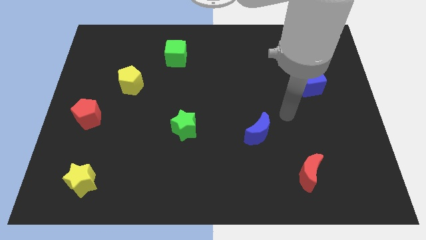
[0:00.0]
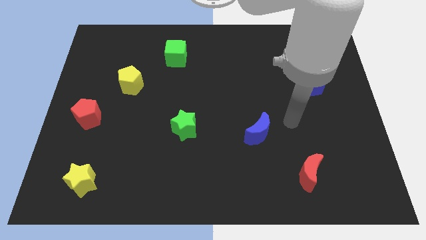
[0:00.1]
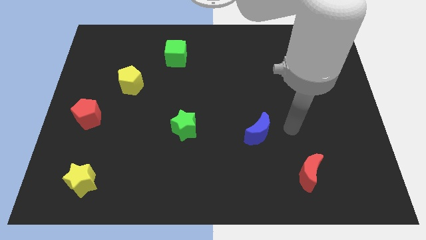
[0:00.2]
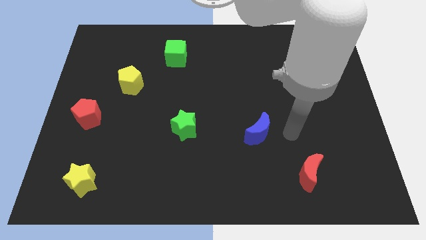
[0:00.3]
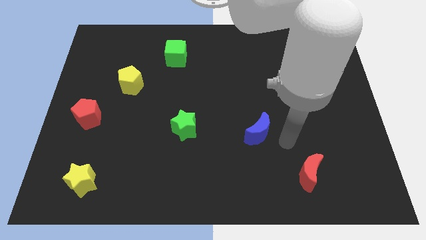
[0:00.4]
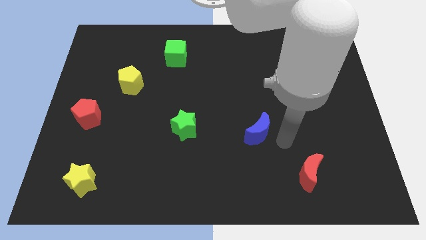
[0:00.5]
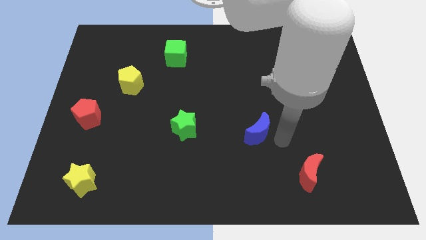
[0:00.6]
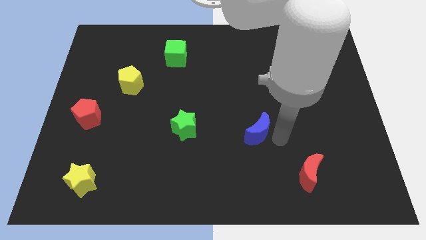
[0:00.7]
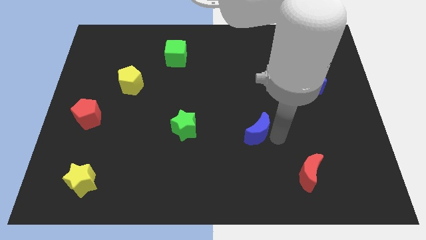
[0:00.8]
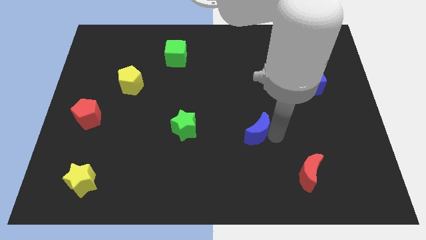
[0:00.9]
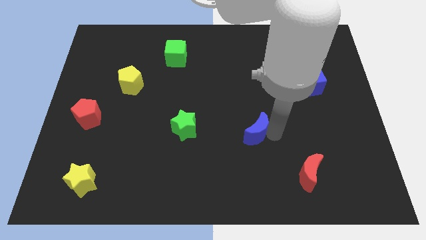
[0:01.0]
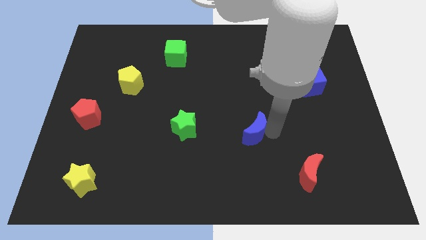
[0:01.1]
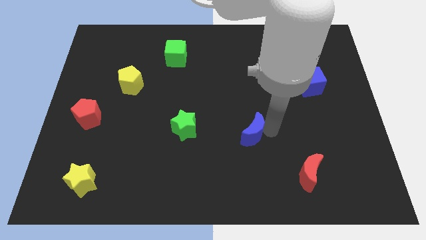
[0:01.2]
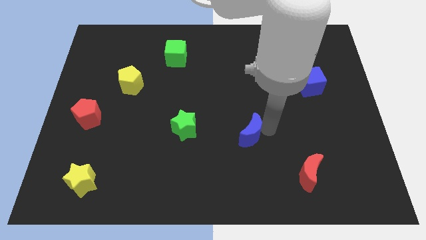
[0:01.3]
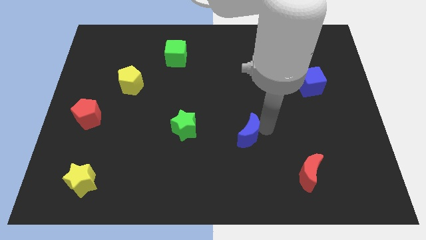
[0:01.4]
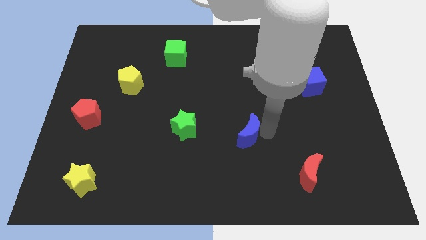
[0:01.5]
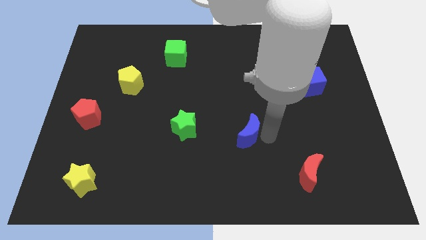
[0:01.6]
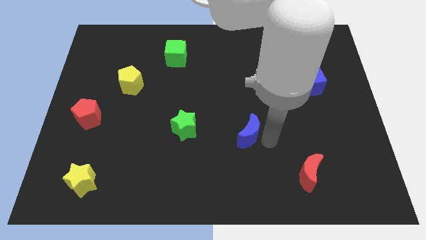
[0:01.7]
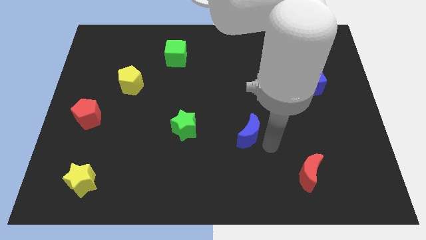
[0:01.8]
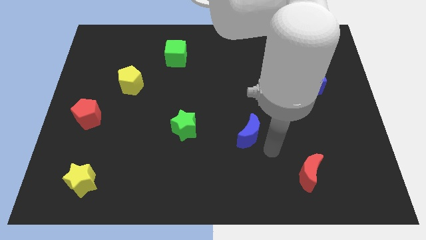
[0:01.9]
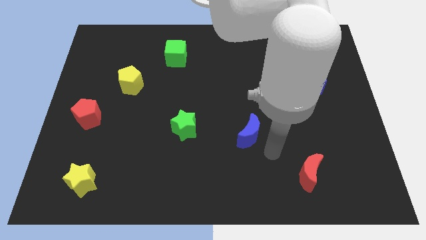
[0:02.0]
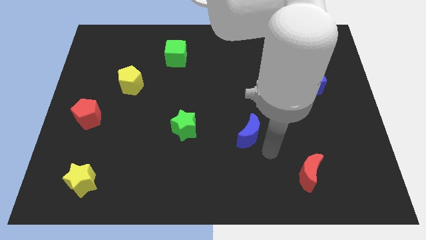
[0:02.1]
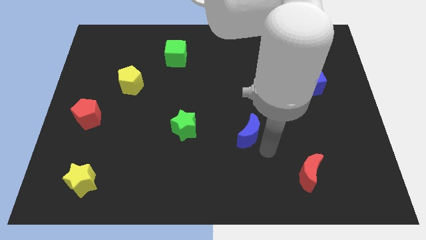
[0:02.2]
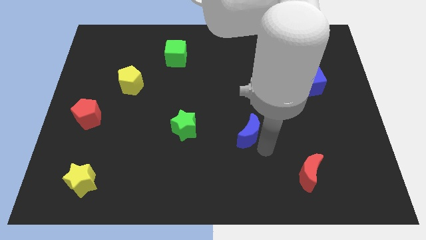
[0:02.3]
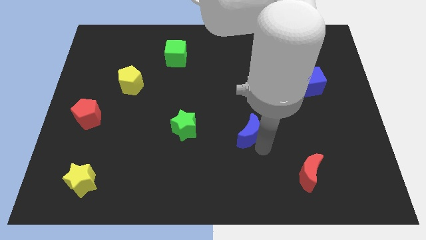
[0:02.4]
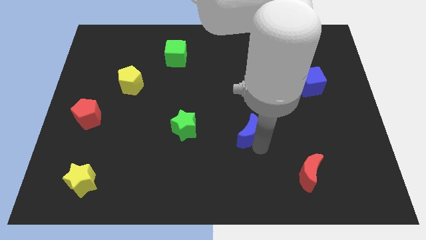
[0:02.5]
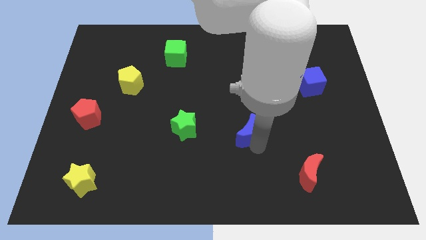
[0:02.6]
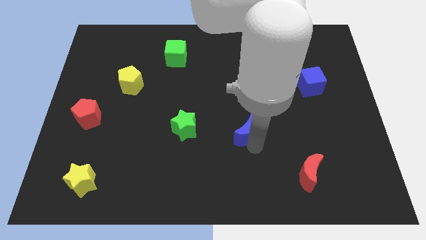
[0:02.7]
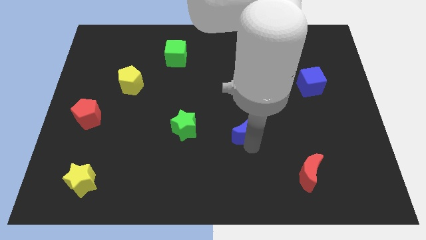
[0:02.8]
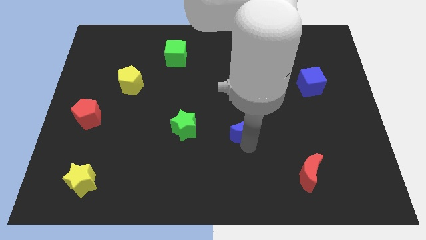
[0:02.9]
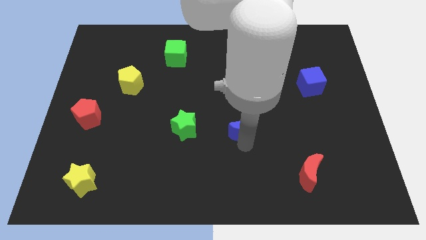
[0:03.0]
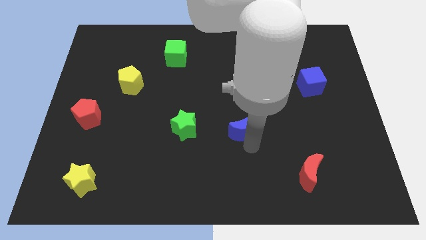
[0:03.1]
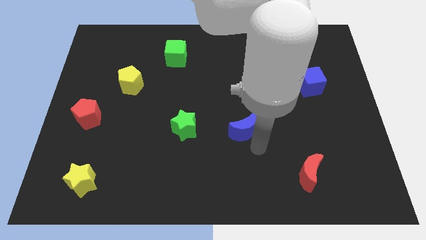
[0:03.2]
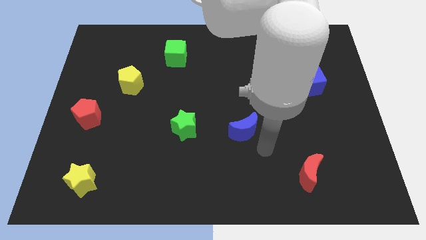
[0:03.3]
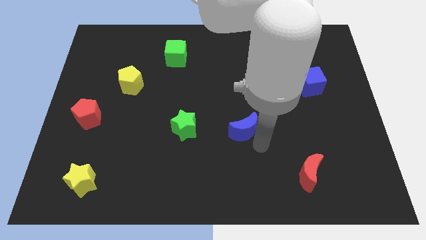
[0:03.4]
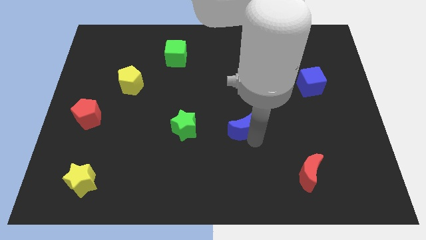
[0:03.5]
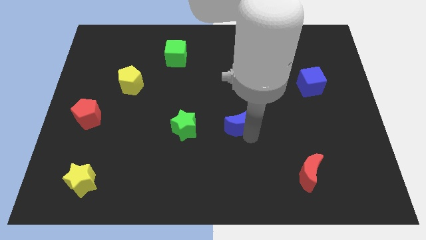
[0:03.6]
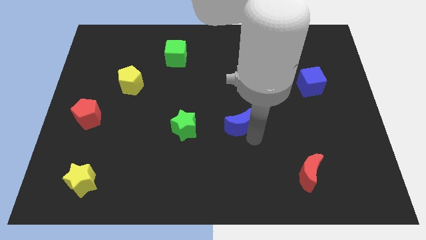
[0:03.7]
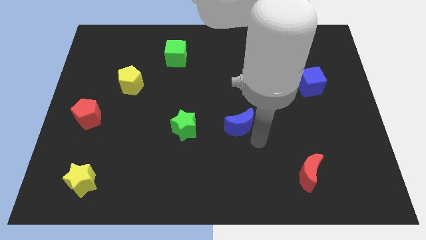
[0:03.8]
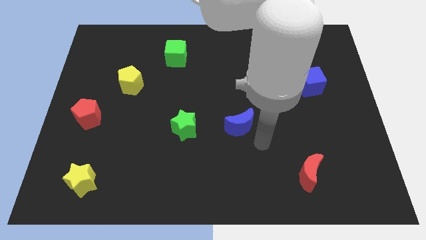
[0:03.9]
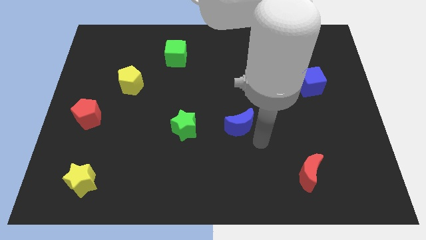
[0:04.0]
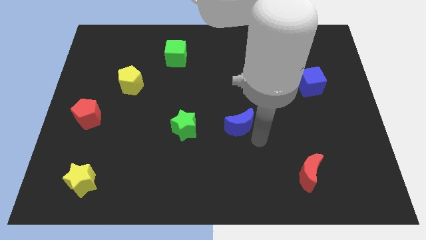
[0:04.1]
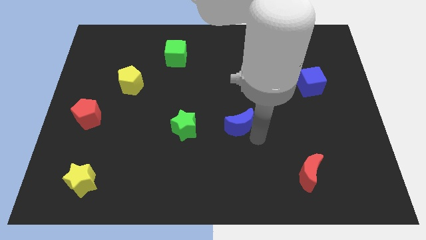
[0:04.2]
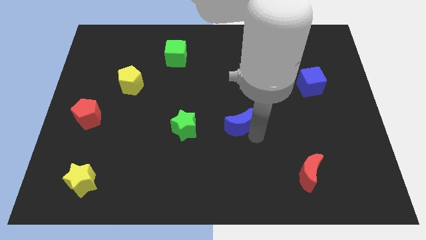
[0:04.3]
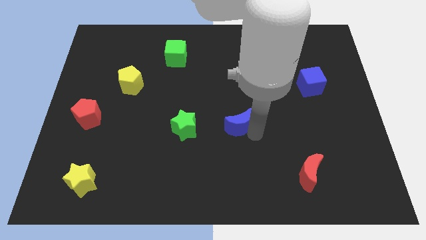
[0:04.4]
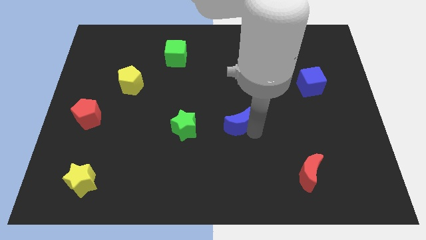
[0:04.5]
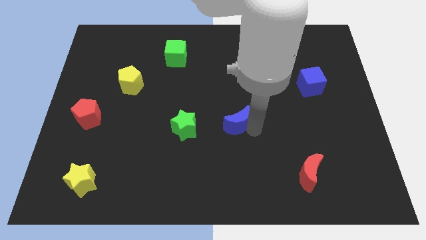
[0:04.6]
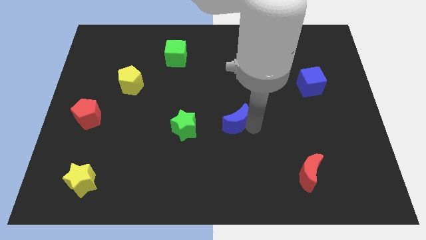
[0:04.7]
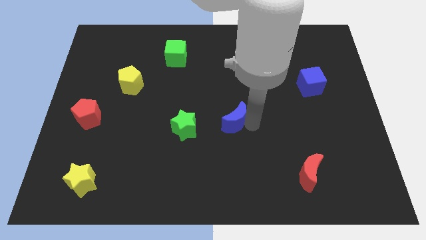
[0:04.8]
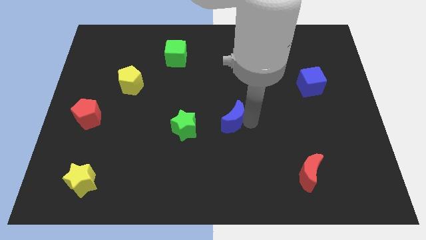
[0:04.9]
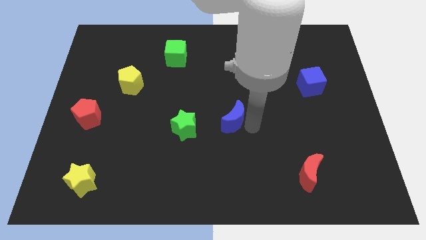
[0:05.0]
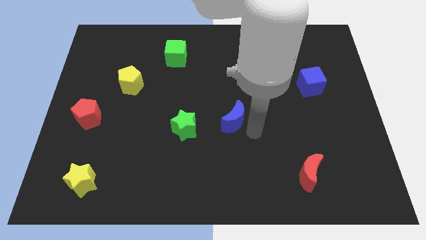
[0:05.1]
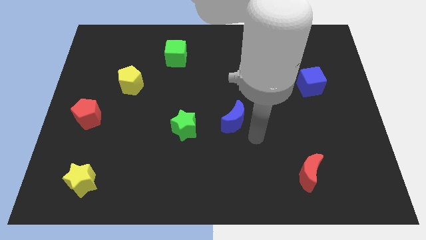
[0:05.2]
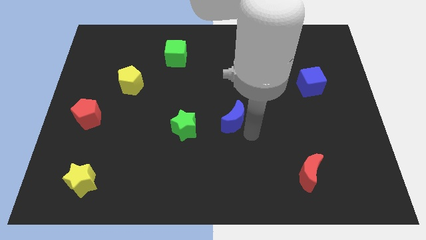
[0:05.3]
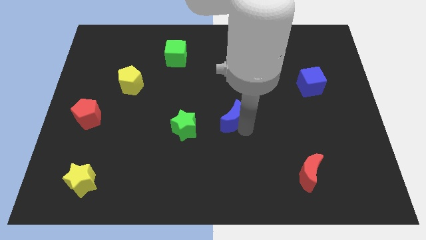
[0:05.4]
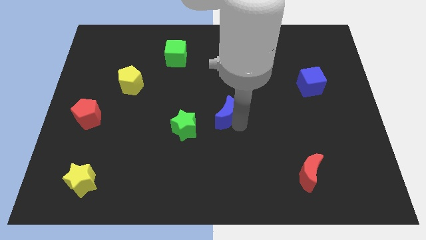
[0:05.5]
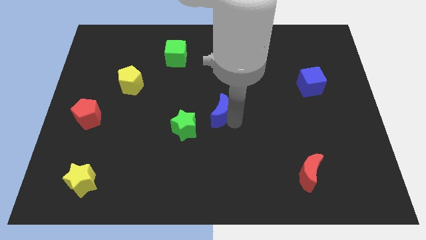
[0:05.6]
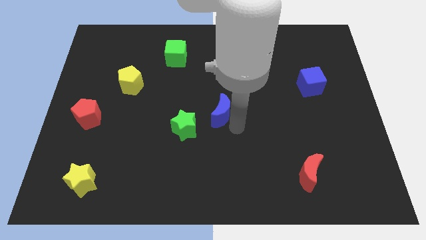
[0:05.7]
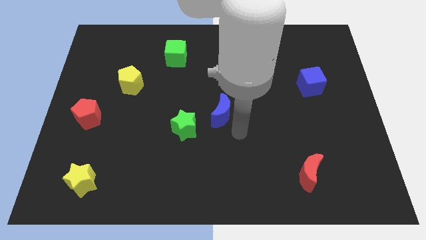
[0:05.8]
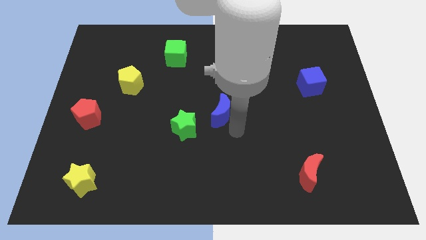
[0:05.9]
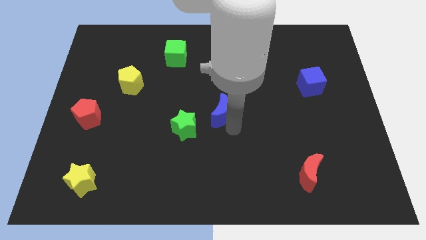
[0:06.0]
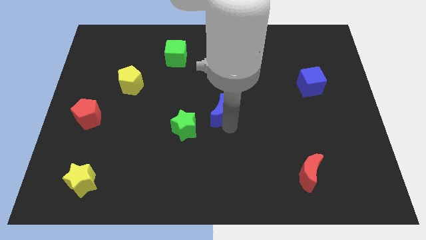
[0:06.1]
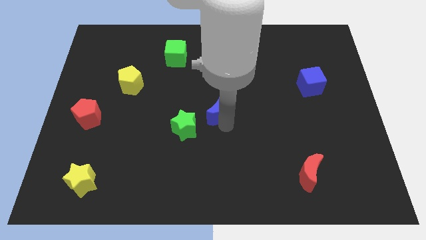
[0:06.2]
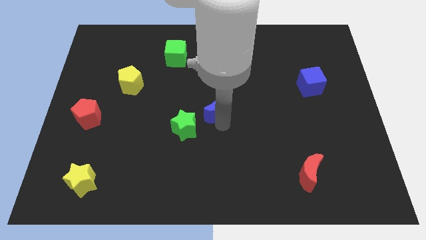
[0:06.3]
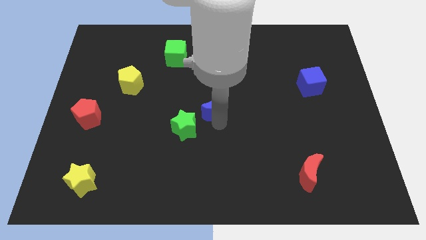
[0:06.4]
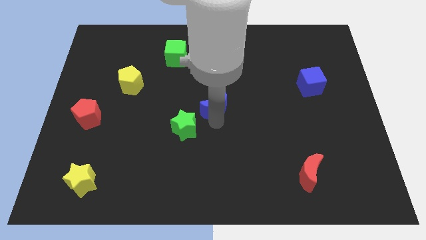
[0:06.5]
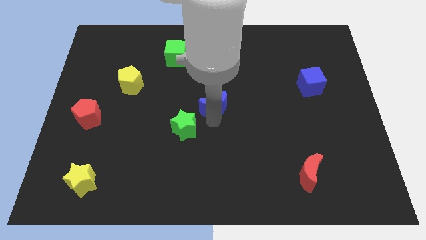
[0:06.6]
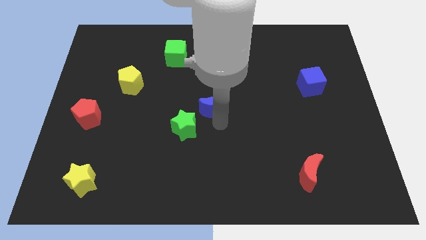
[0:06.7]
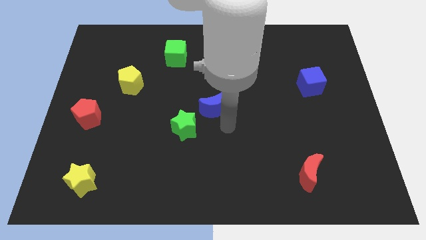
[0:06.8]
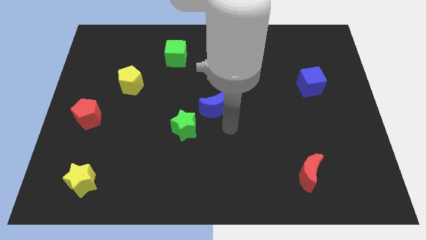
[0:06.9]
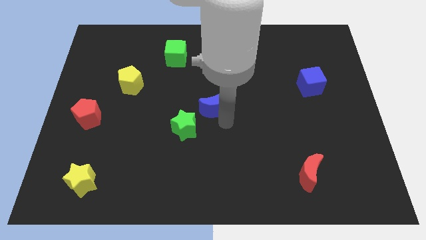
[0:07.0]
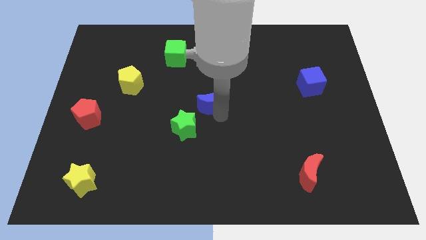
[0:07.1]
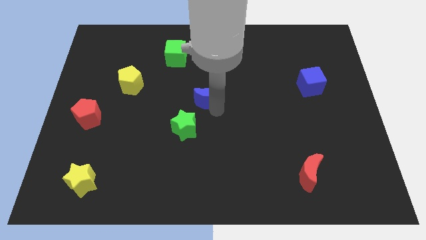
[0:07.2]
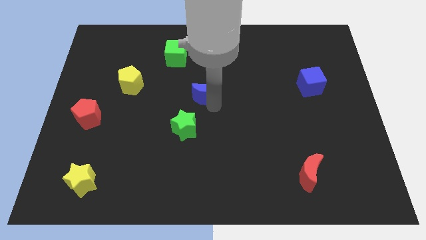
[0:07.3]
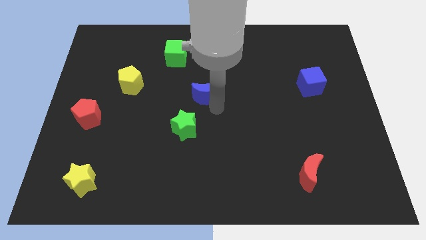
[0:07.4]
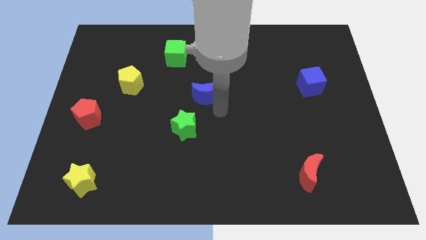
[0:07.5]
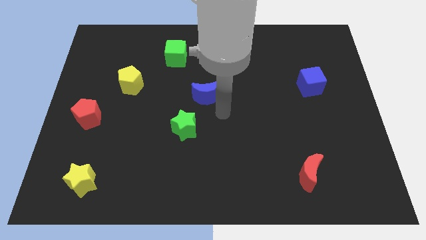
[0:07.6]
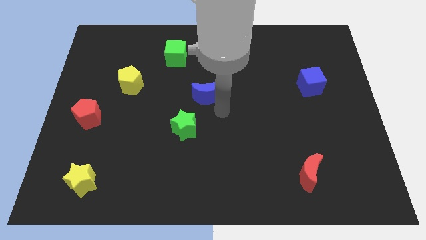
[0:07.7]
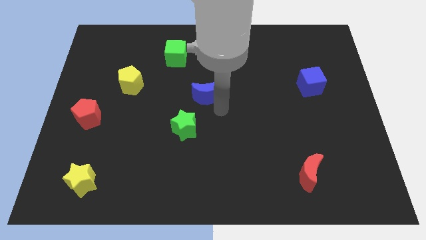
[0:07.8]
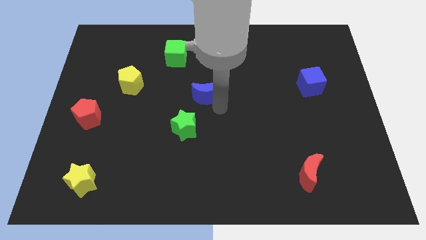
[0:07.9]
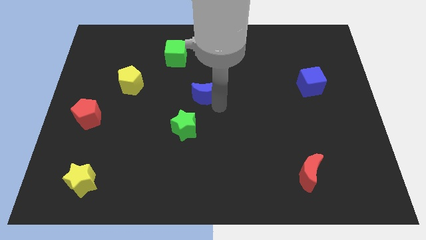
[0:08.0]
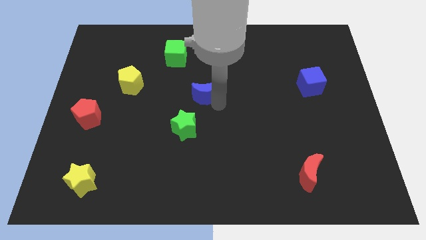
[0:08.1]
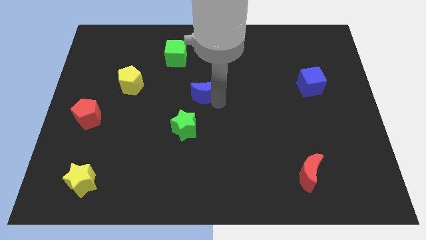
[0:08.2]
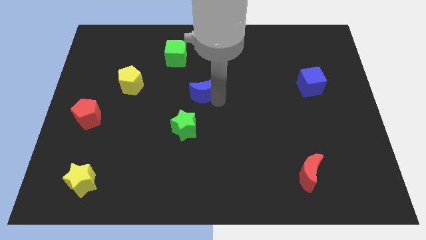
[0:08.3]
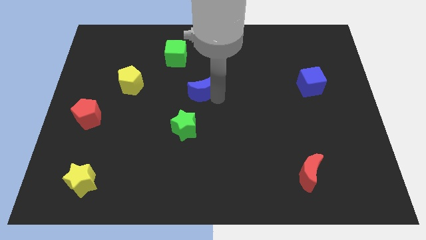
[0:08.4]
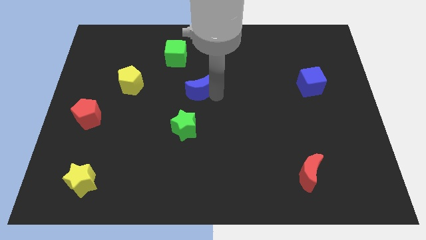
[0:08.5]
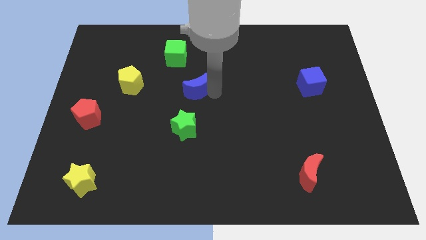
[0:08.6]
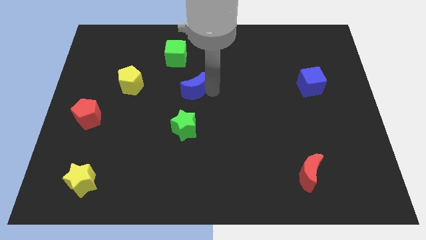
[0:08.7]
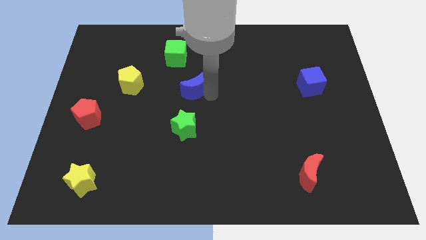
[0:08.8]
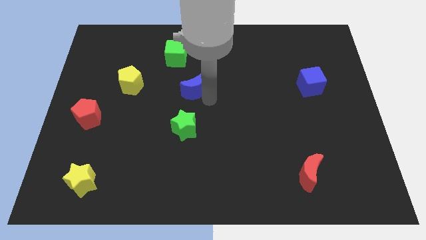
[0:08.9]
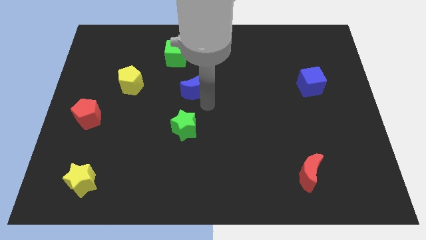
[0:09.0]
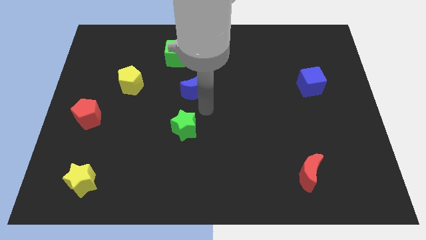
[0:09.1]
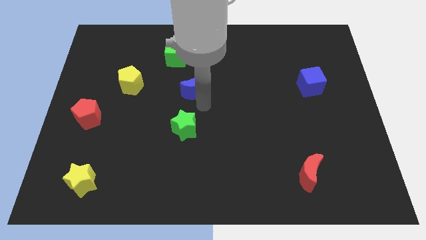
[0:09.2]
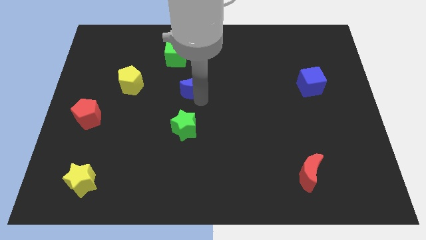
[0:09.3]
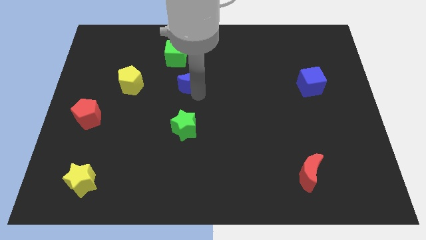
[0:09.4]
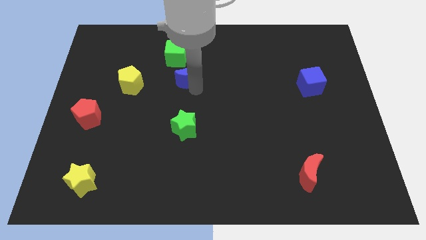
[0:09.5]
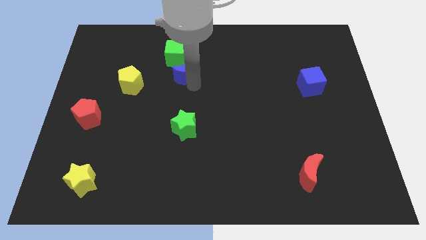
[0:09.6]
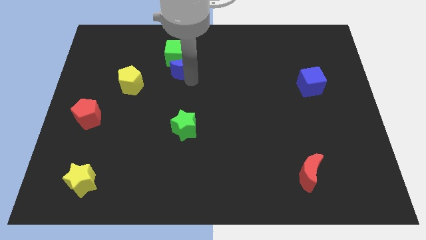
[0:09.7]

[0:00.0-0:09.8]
push the blue moon towards the green cube
